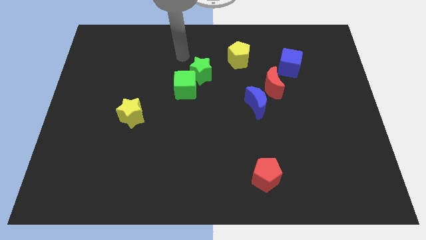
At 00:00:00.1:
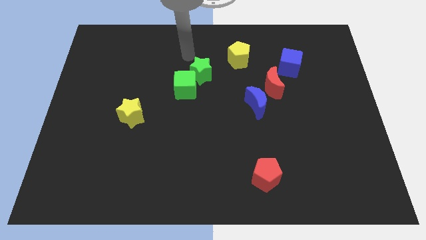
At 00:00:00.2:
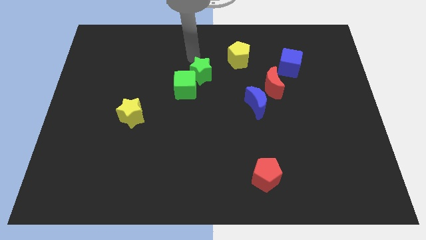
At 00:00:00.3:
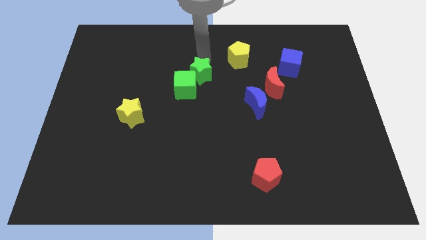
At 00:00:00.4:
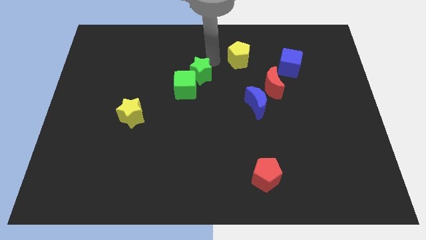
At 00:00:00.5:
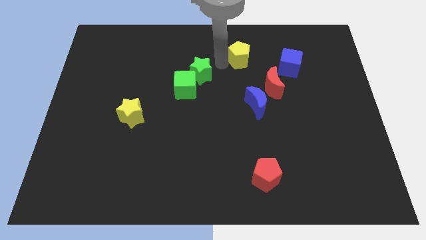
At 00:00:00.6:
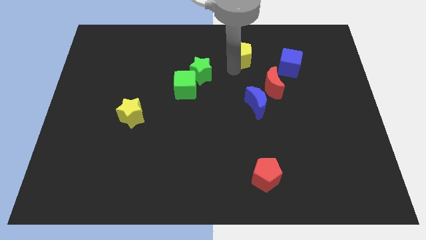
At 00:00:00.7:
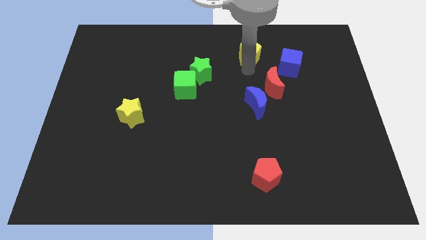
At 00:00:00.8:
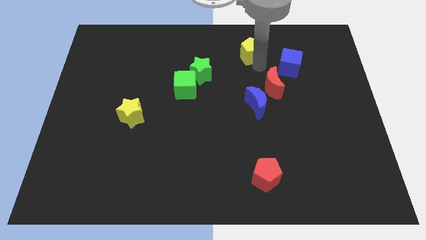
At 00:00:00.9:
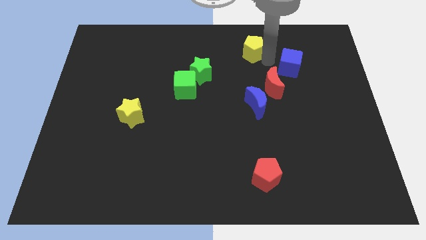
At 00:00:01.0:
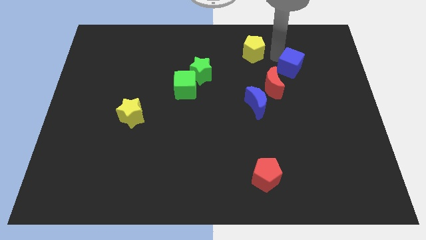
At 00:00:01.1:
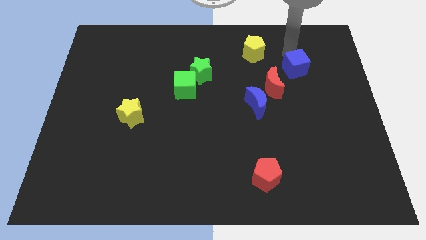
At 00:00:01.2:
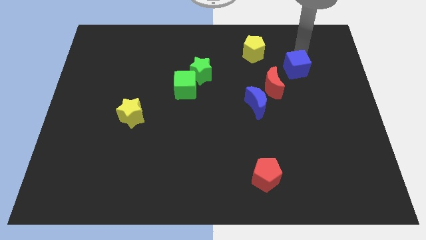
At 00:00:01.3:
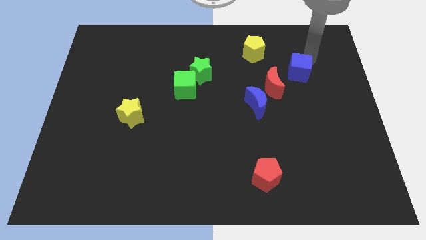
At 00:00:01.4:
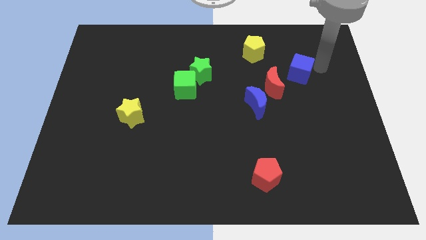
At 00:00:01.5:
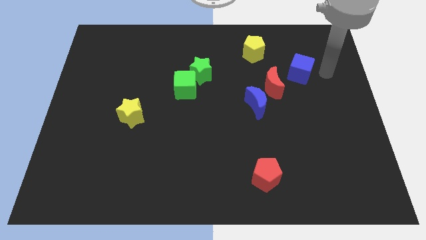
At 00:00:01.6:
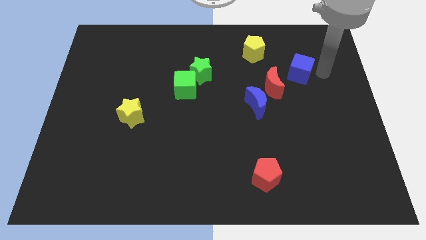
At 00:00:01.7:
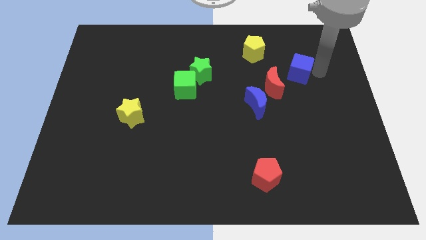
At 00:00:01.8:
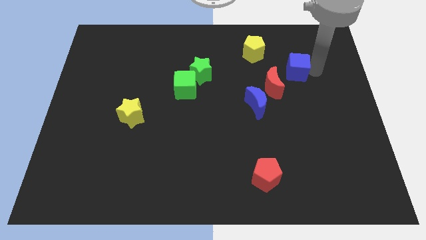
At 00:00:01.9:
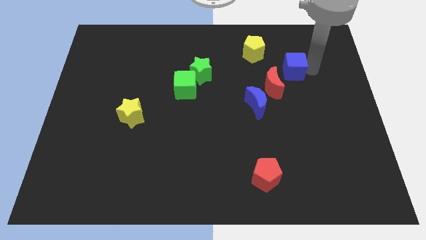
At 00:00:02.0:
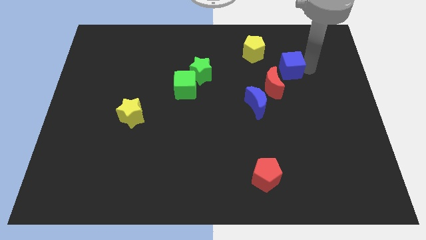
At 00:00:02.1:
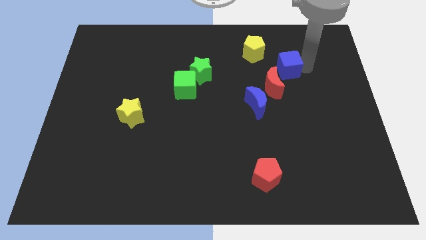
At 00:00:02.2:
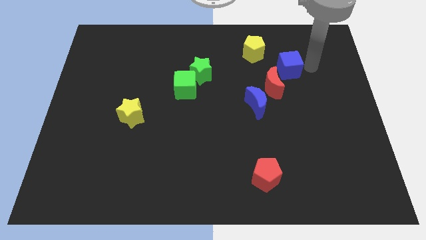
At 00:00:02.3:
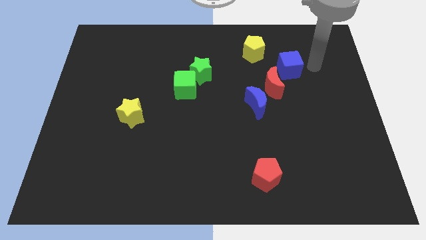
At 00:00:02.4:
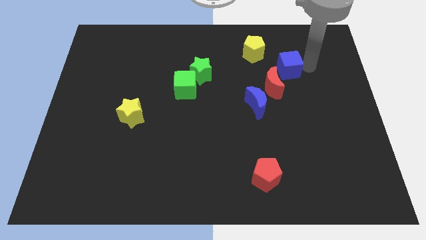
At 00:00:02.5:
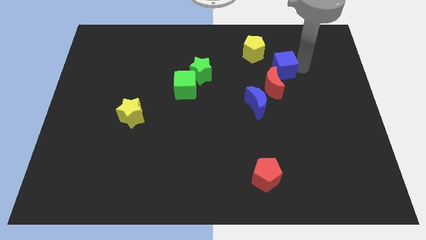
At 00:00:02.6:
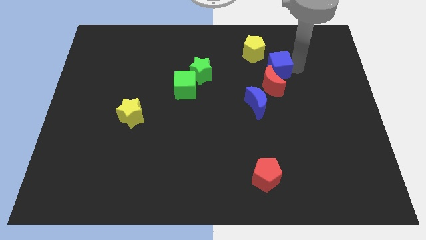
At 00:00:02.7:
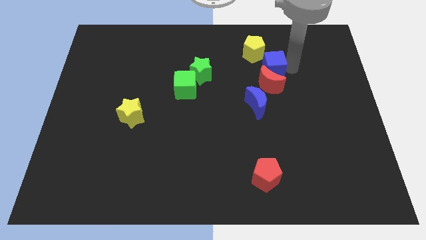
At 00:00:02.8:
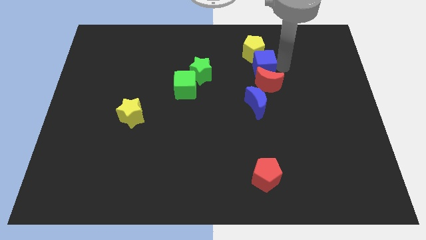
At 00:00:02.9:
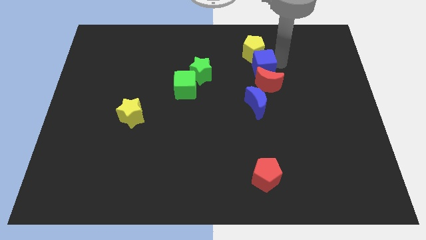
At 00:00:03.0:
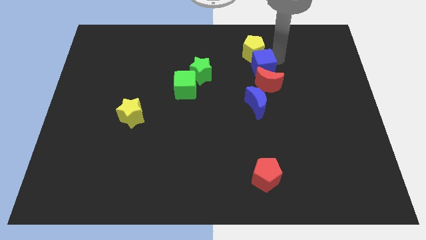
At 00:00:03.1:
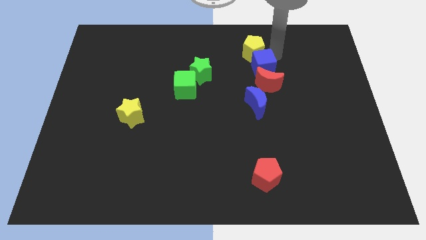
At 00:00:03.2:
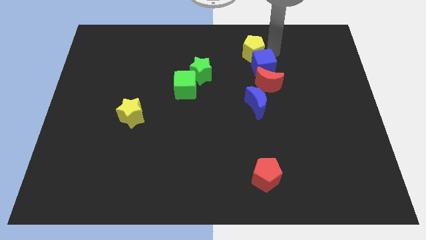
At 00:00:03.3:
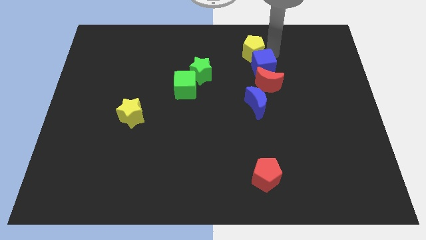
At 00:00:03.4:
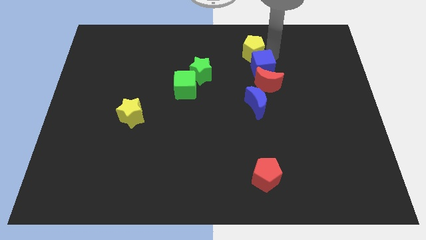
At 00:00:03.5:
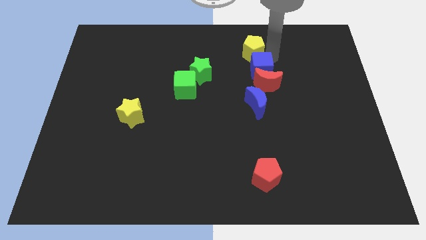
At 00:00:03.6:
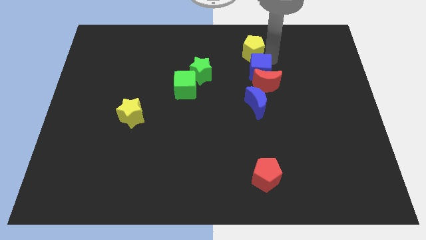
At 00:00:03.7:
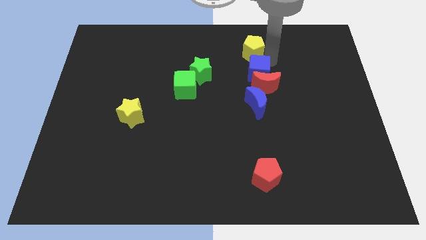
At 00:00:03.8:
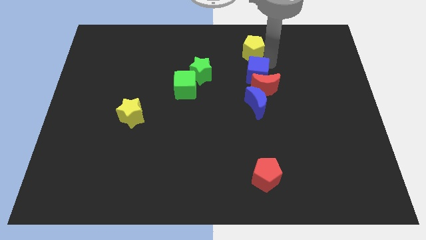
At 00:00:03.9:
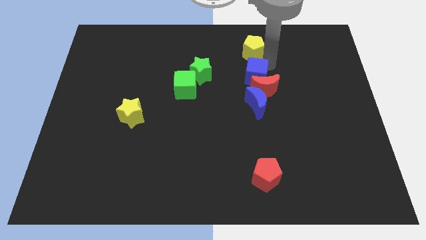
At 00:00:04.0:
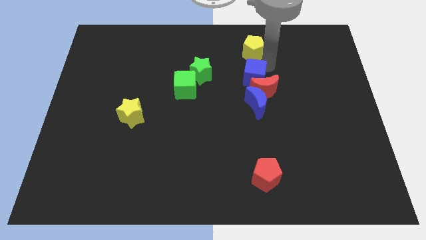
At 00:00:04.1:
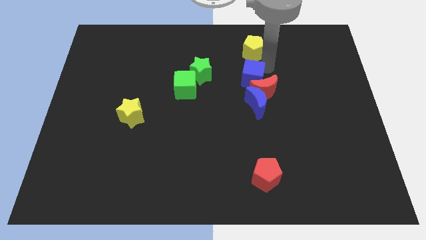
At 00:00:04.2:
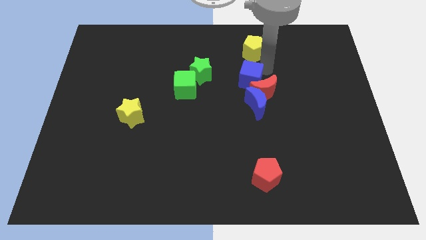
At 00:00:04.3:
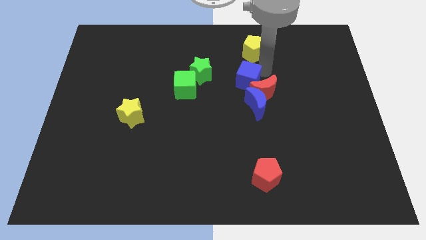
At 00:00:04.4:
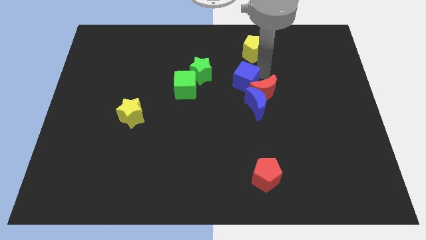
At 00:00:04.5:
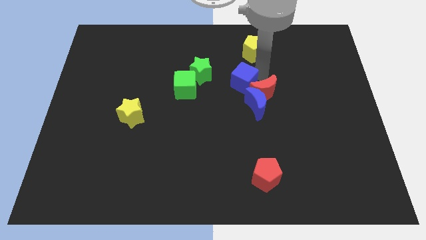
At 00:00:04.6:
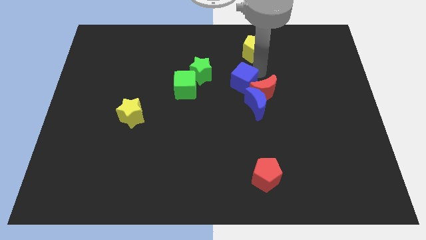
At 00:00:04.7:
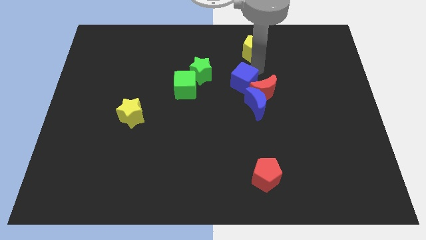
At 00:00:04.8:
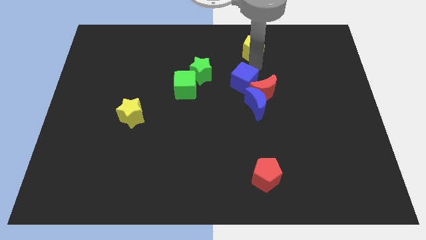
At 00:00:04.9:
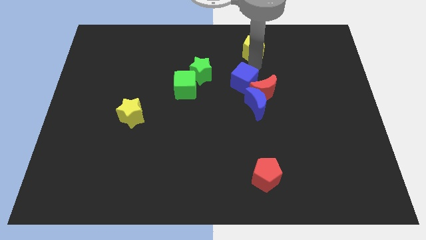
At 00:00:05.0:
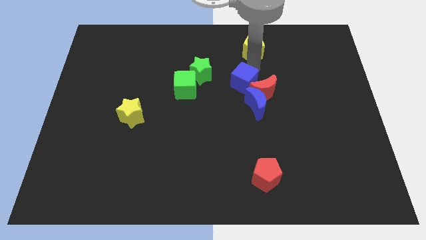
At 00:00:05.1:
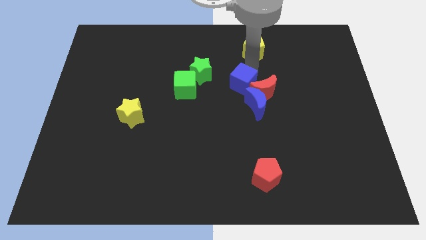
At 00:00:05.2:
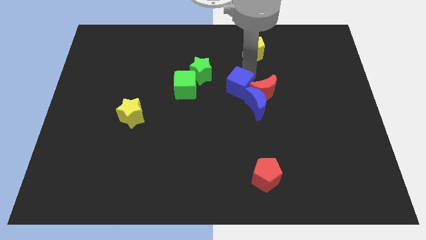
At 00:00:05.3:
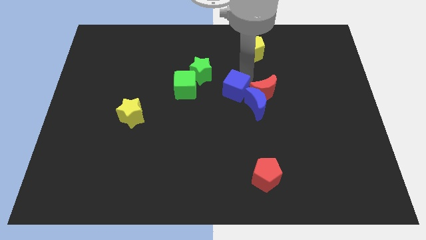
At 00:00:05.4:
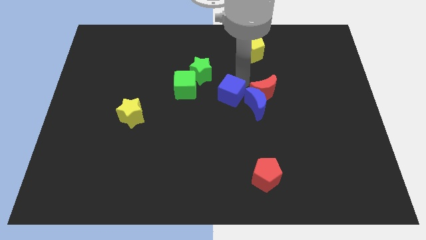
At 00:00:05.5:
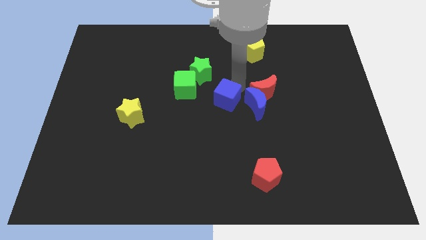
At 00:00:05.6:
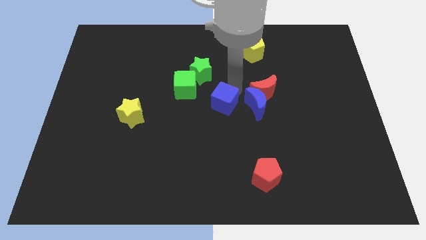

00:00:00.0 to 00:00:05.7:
slide the blue cube down and left diagonally

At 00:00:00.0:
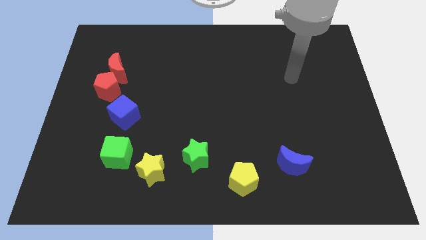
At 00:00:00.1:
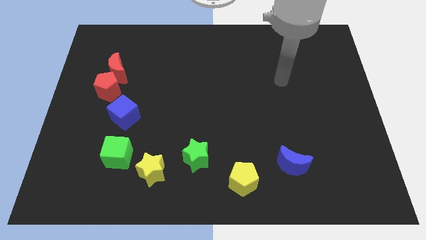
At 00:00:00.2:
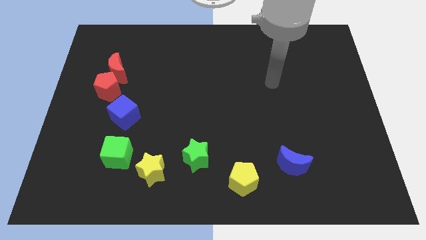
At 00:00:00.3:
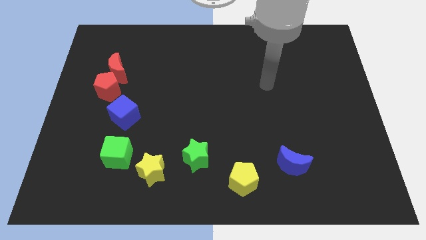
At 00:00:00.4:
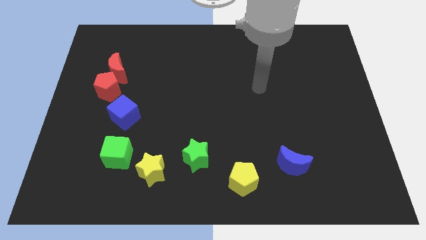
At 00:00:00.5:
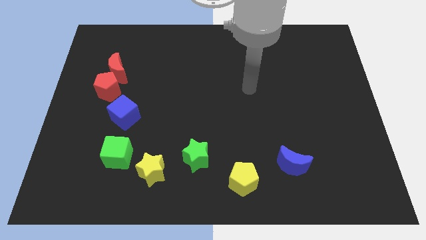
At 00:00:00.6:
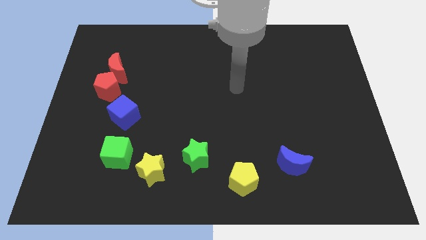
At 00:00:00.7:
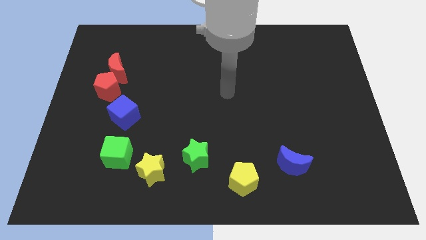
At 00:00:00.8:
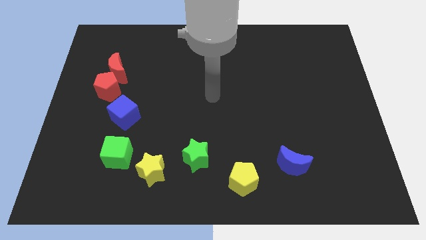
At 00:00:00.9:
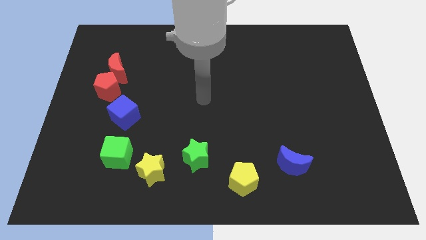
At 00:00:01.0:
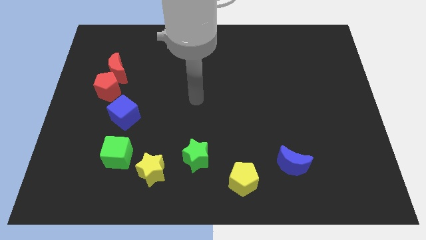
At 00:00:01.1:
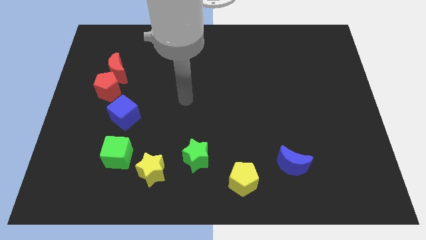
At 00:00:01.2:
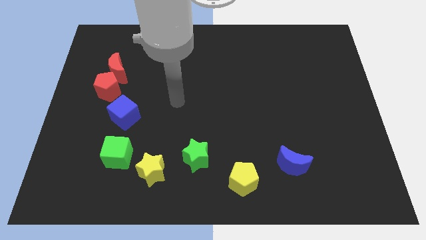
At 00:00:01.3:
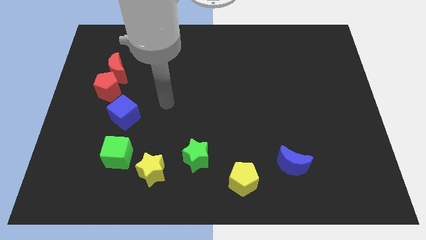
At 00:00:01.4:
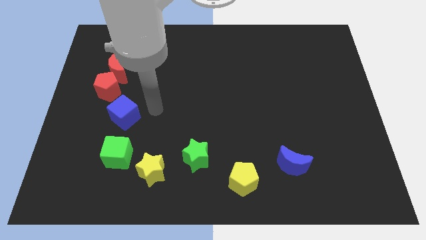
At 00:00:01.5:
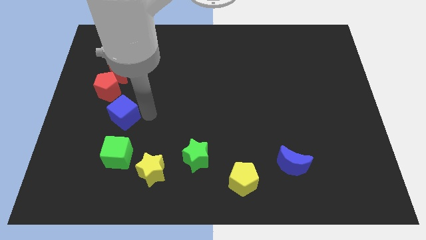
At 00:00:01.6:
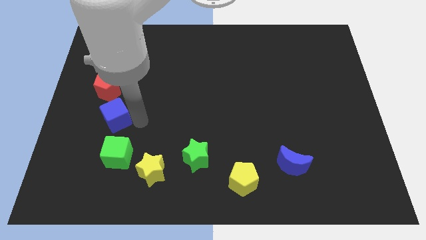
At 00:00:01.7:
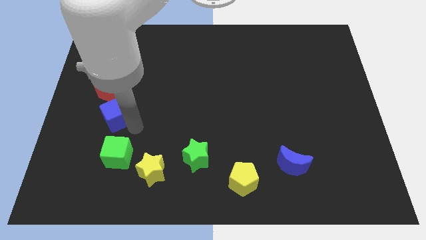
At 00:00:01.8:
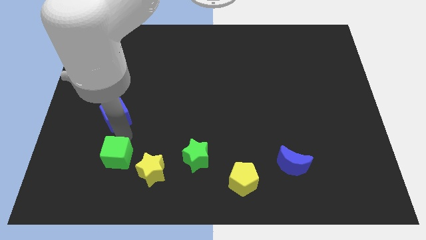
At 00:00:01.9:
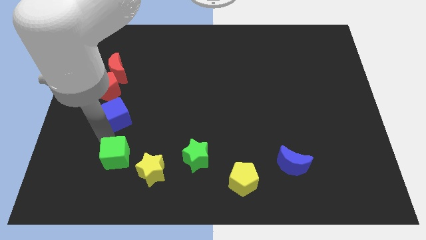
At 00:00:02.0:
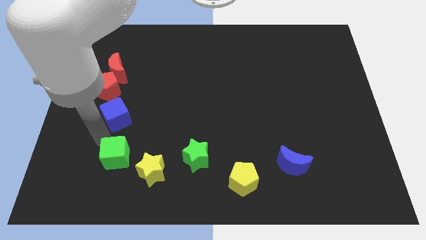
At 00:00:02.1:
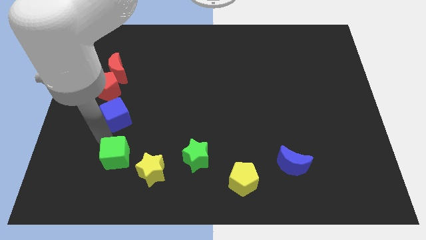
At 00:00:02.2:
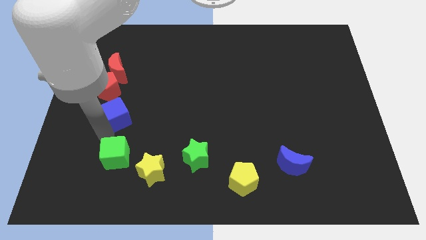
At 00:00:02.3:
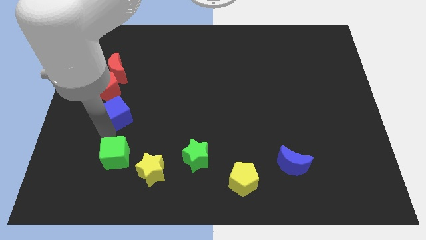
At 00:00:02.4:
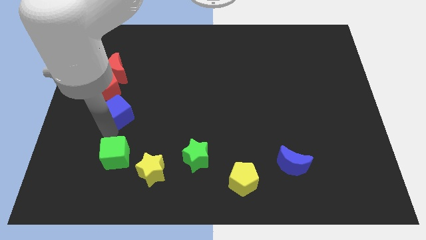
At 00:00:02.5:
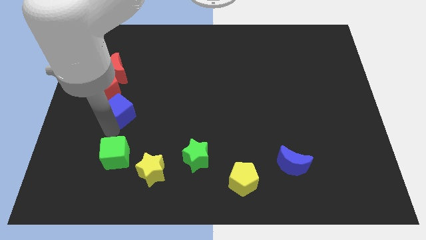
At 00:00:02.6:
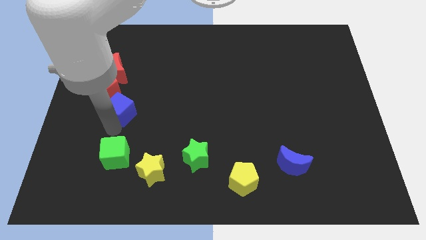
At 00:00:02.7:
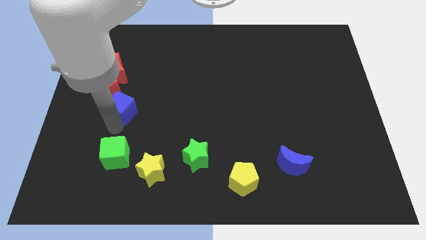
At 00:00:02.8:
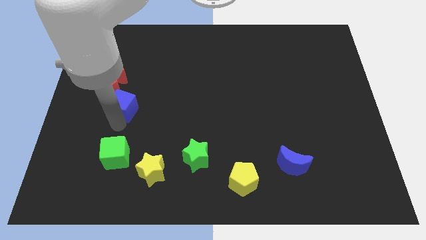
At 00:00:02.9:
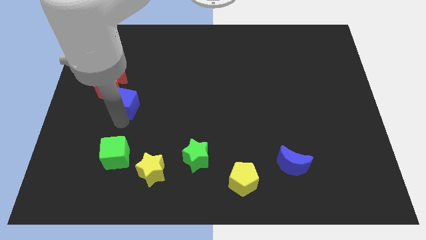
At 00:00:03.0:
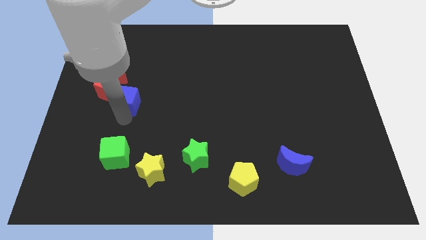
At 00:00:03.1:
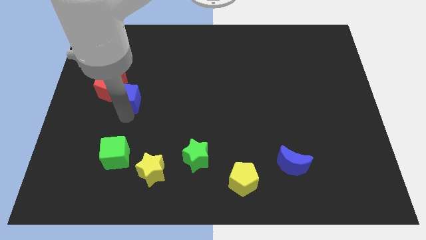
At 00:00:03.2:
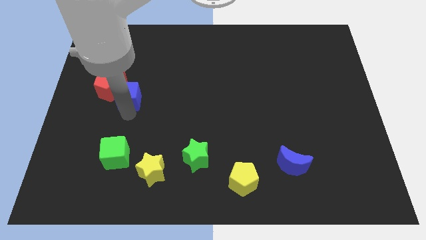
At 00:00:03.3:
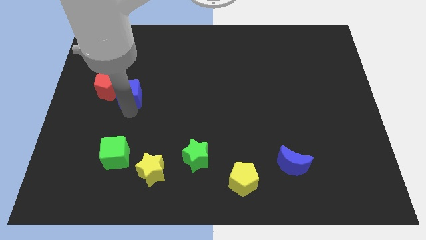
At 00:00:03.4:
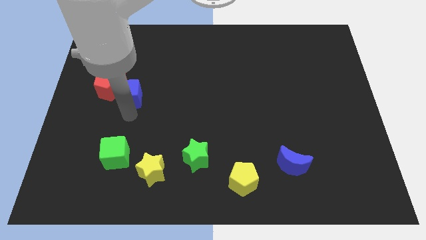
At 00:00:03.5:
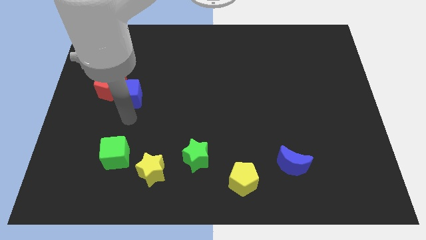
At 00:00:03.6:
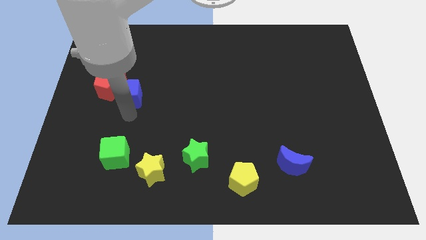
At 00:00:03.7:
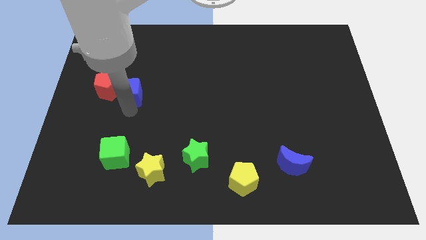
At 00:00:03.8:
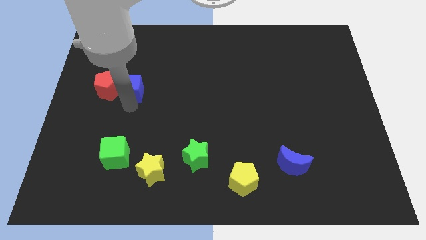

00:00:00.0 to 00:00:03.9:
slightly slide the blue cube up
